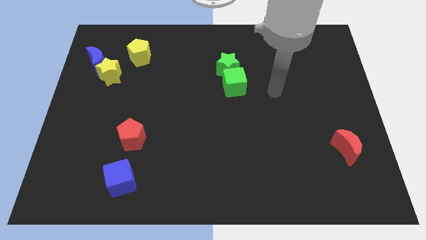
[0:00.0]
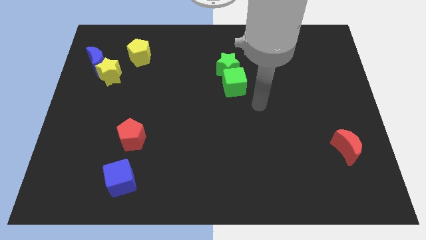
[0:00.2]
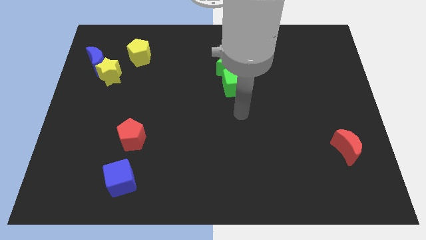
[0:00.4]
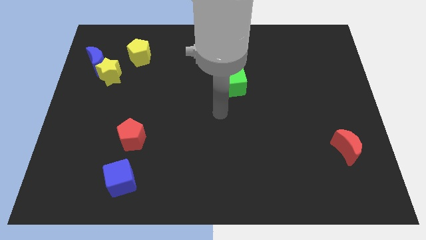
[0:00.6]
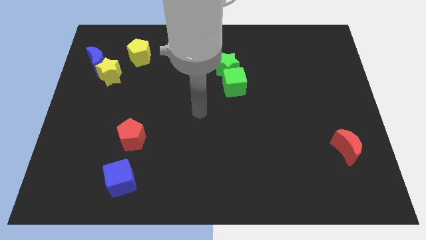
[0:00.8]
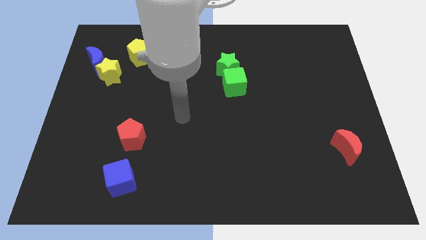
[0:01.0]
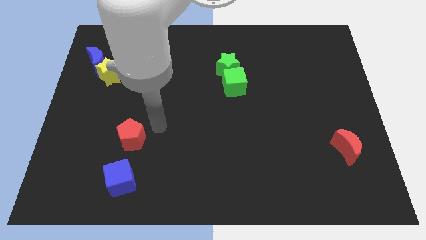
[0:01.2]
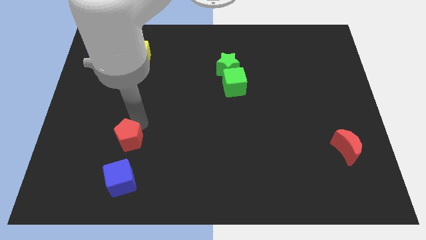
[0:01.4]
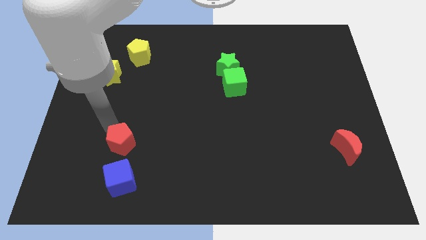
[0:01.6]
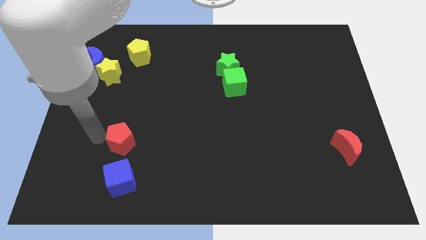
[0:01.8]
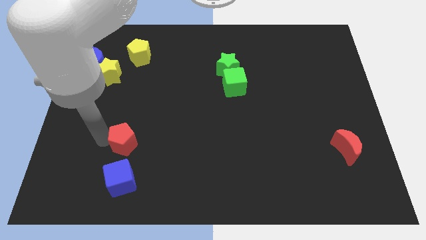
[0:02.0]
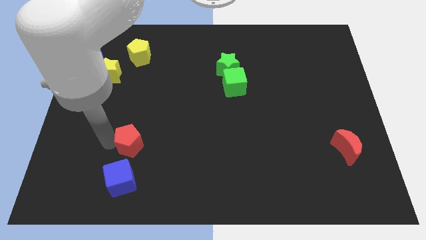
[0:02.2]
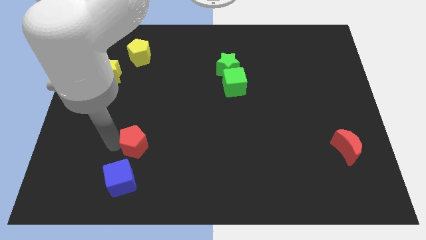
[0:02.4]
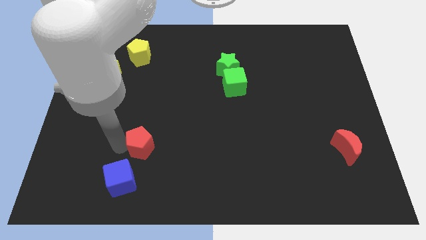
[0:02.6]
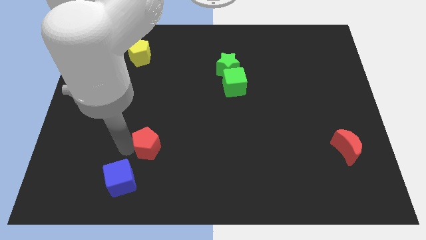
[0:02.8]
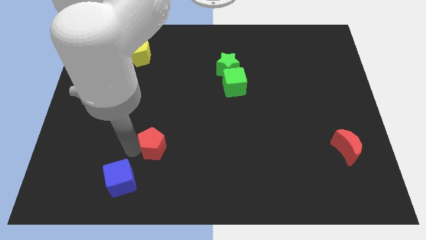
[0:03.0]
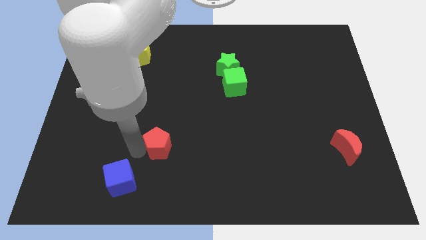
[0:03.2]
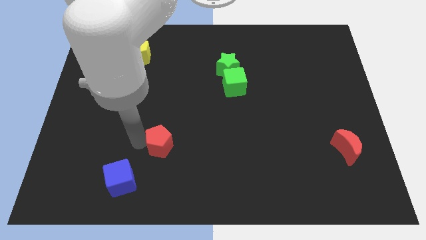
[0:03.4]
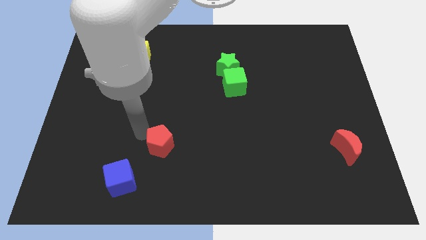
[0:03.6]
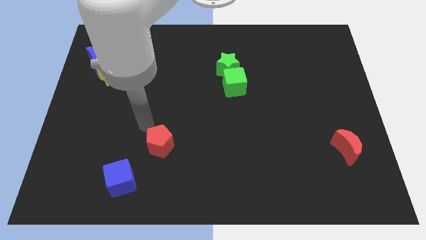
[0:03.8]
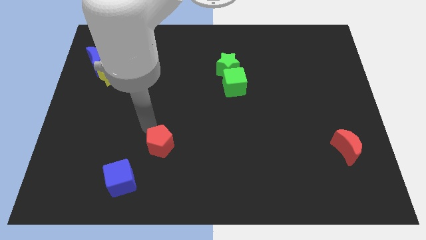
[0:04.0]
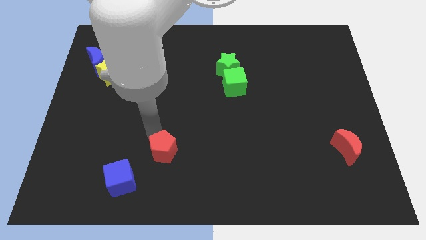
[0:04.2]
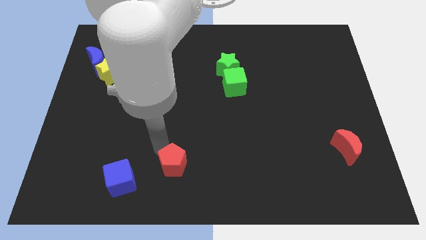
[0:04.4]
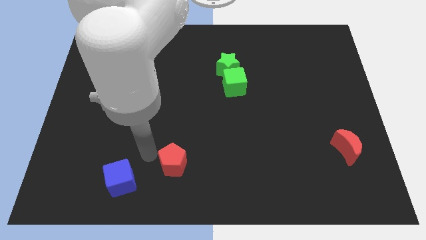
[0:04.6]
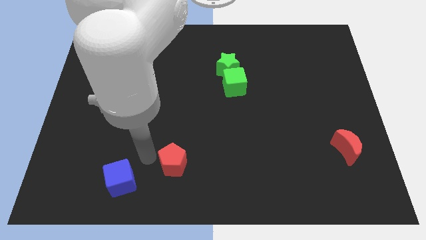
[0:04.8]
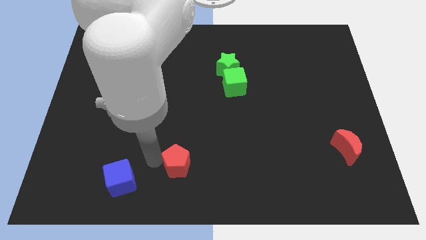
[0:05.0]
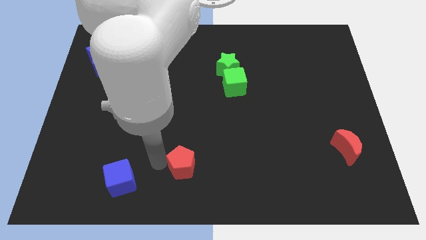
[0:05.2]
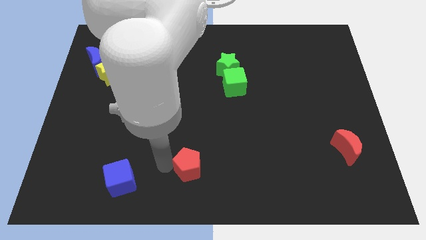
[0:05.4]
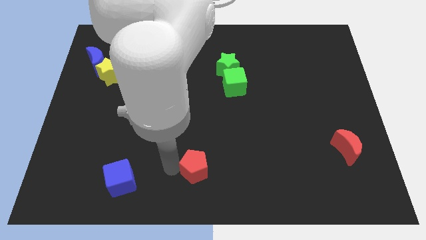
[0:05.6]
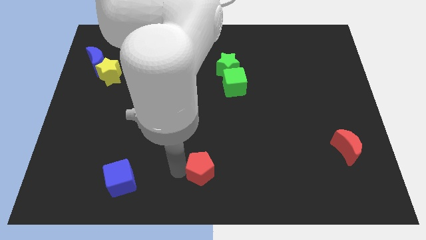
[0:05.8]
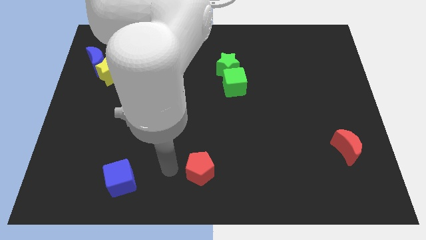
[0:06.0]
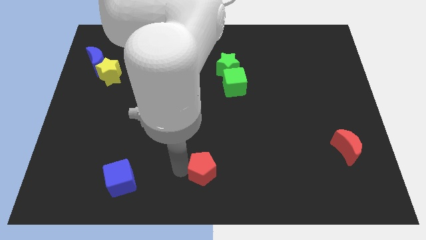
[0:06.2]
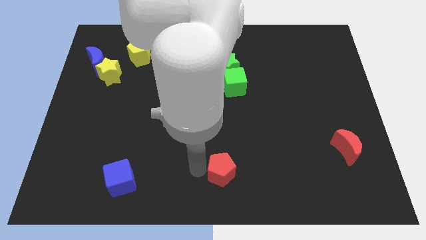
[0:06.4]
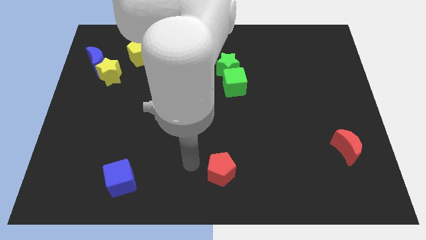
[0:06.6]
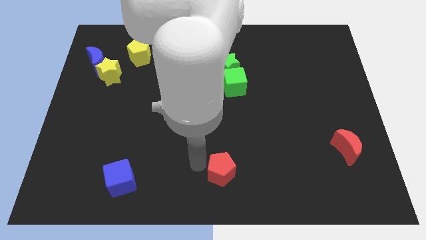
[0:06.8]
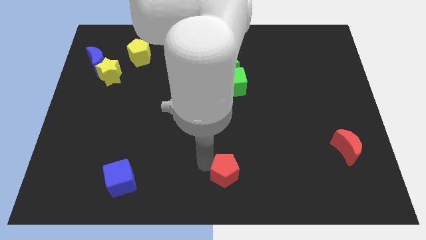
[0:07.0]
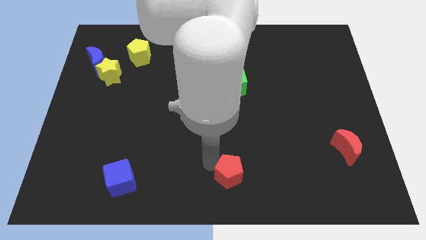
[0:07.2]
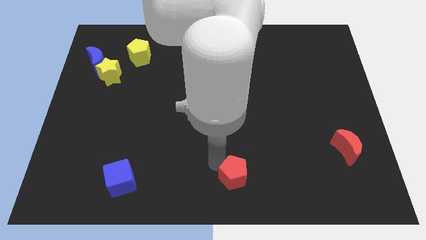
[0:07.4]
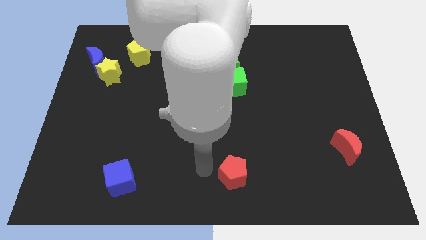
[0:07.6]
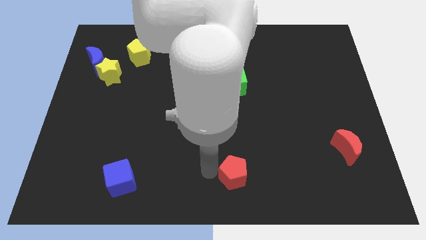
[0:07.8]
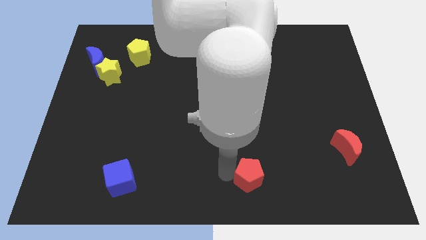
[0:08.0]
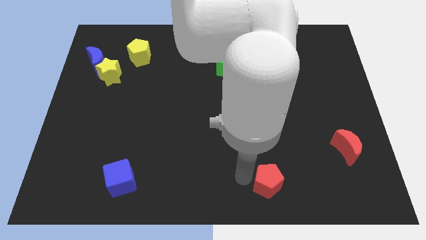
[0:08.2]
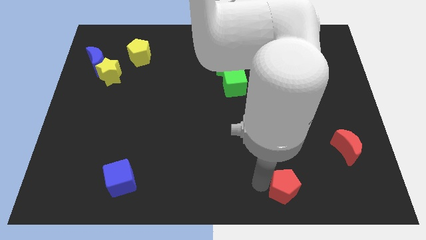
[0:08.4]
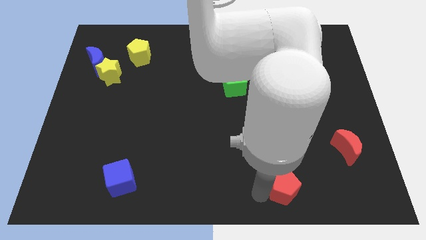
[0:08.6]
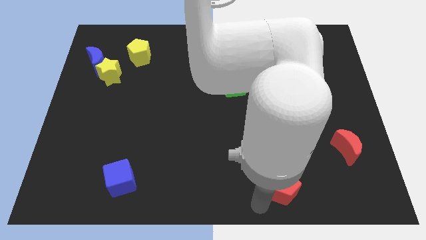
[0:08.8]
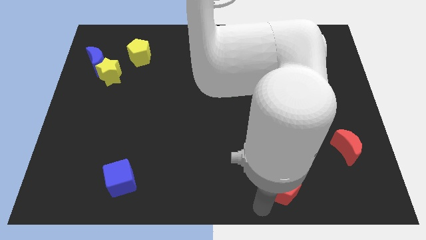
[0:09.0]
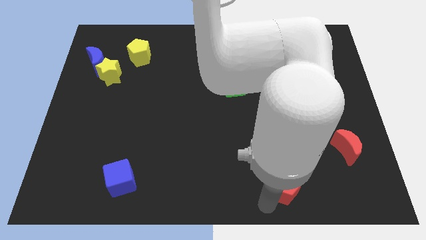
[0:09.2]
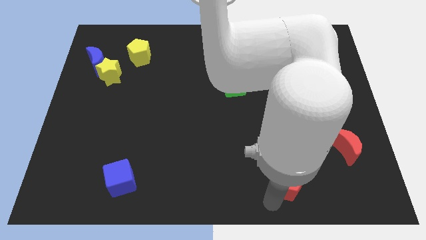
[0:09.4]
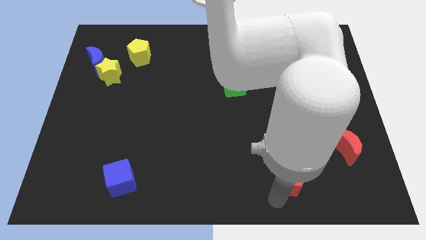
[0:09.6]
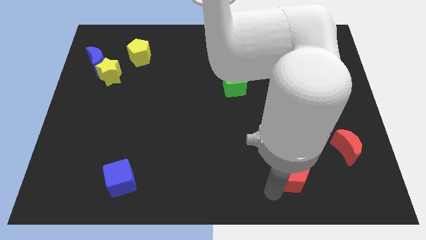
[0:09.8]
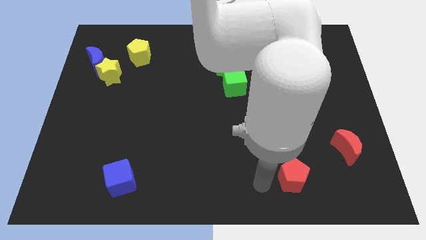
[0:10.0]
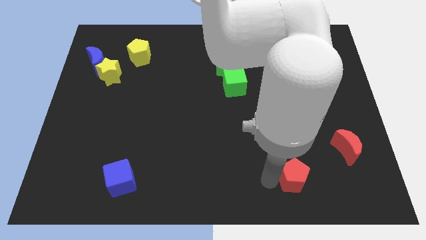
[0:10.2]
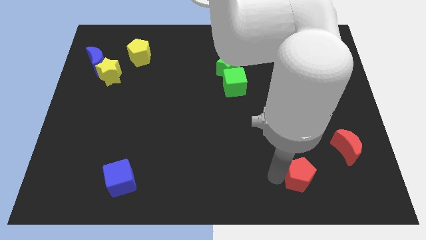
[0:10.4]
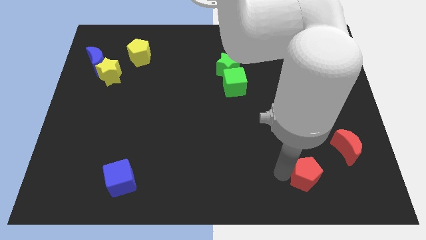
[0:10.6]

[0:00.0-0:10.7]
move the red pentagon diagonally down and to the left of the red moon

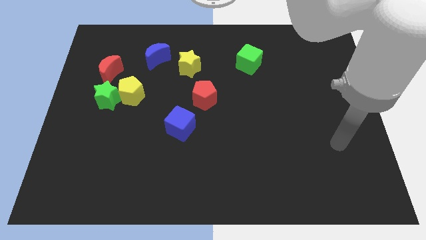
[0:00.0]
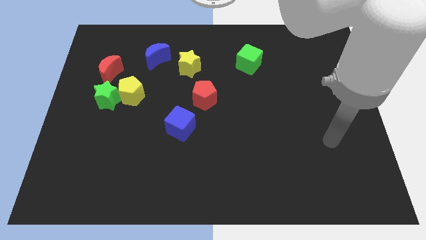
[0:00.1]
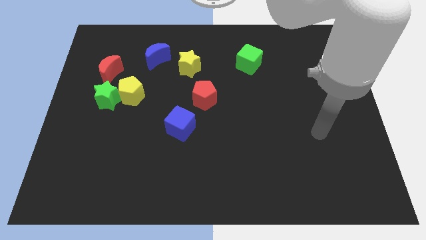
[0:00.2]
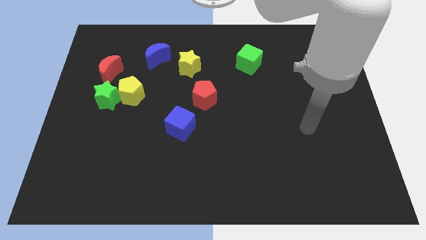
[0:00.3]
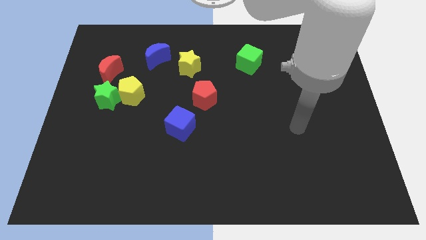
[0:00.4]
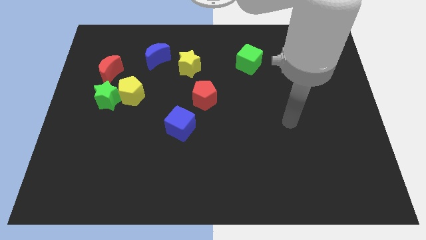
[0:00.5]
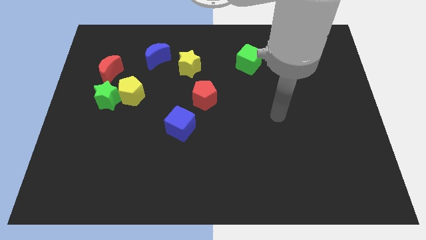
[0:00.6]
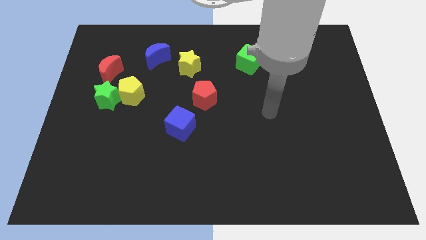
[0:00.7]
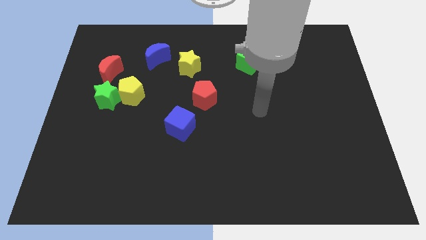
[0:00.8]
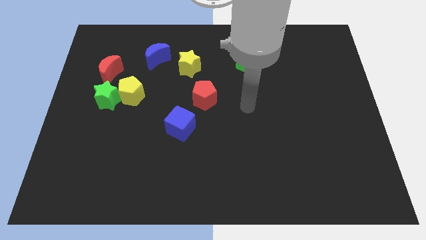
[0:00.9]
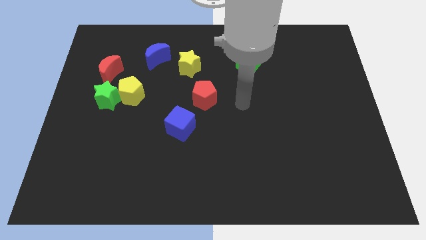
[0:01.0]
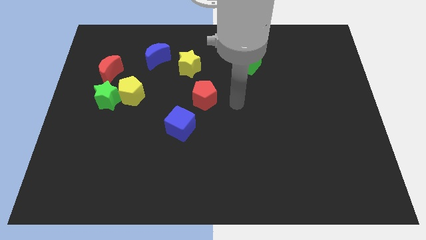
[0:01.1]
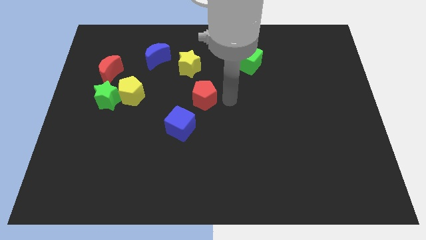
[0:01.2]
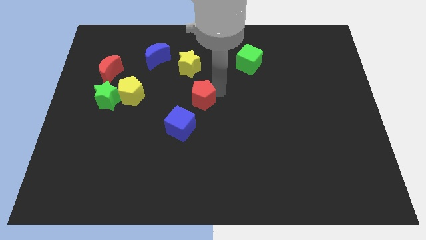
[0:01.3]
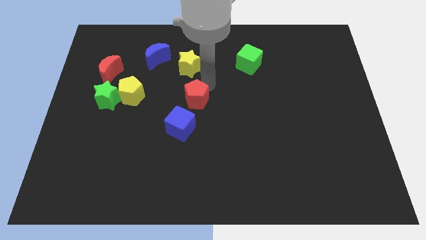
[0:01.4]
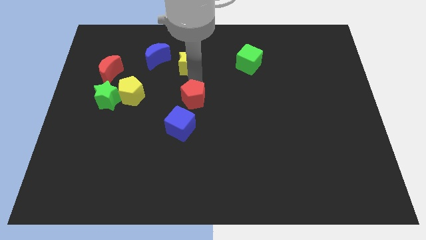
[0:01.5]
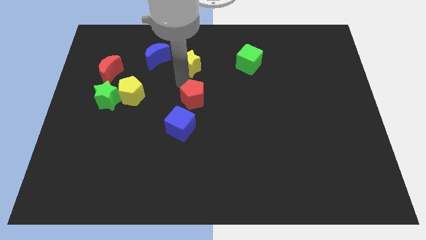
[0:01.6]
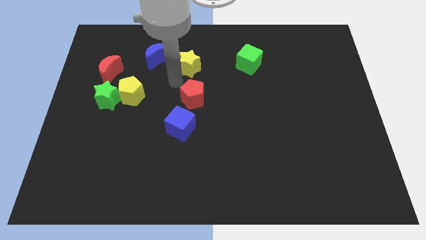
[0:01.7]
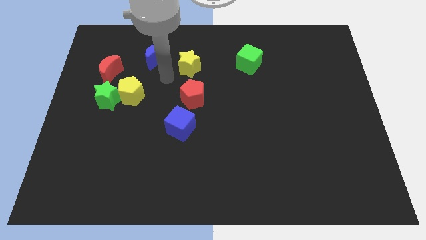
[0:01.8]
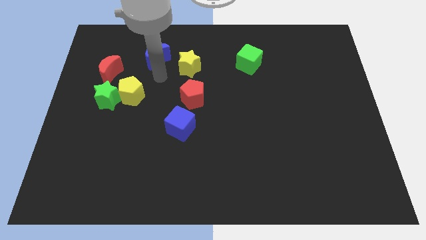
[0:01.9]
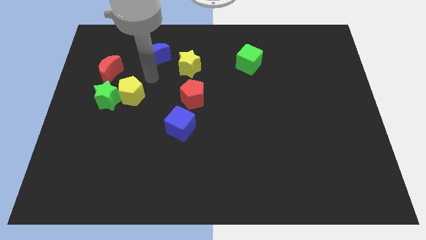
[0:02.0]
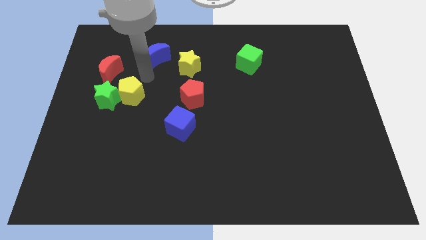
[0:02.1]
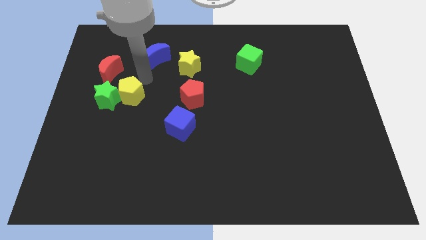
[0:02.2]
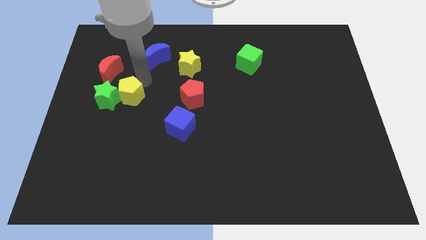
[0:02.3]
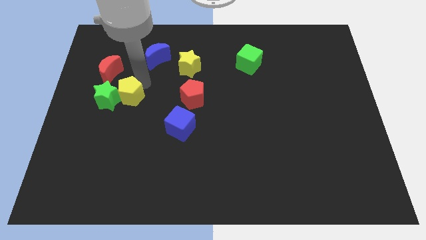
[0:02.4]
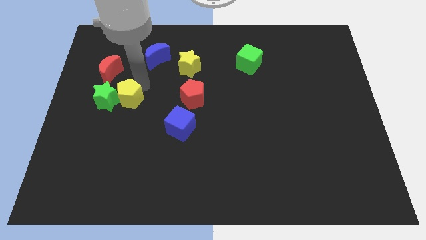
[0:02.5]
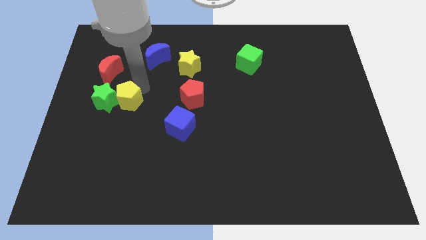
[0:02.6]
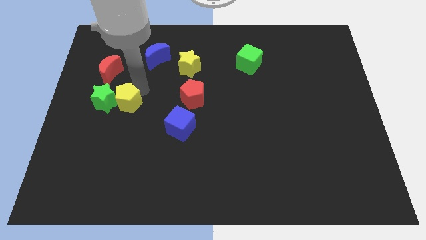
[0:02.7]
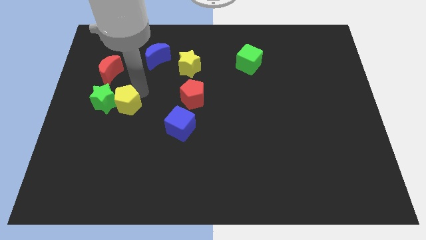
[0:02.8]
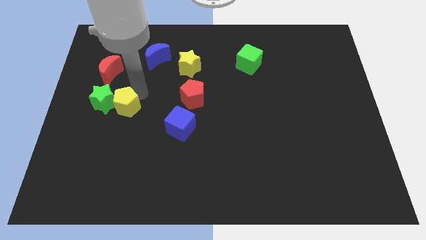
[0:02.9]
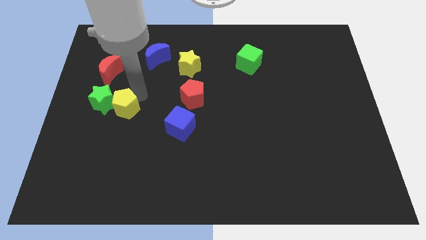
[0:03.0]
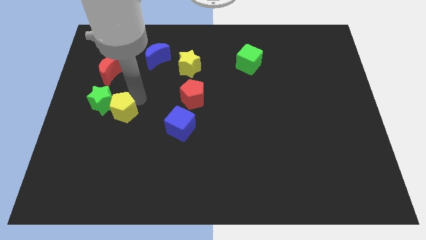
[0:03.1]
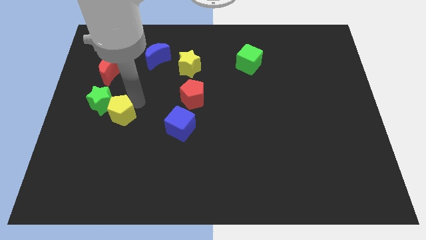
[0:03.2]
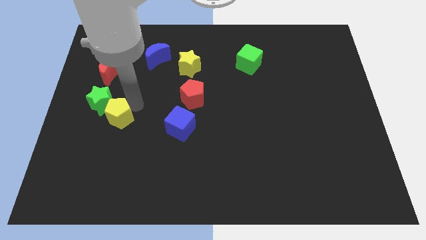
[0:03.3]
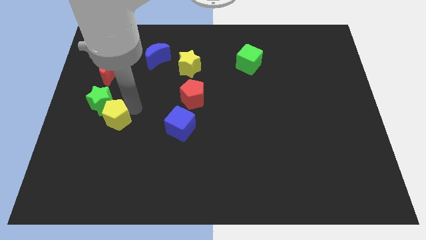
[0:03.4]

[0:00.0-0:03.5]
slide the yellow pentagon to the bottom side of the green star
